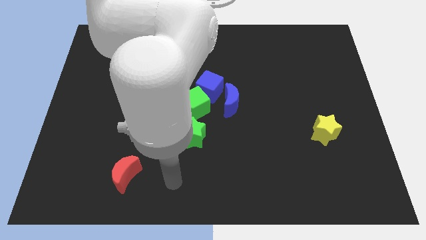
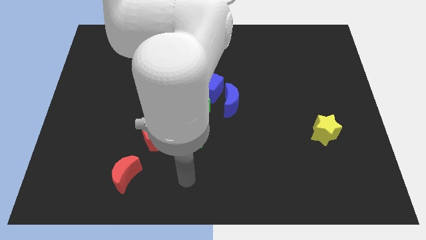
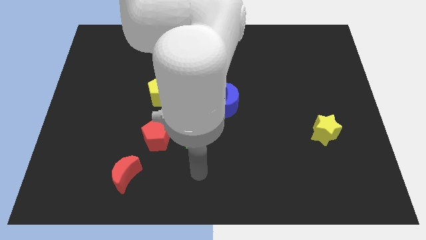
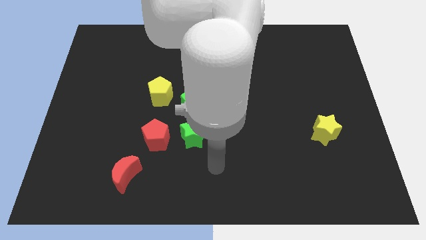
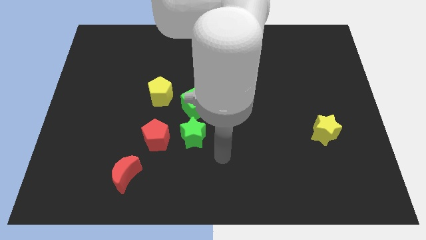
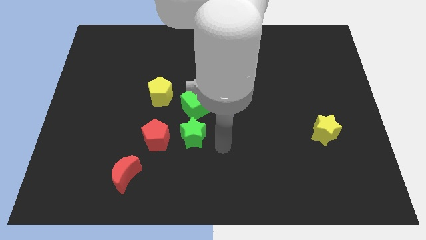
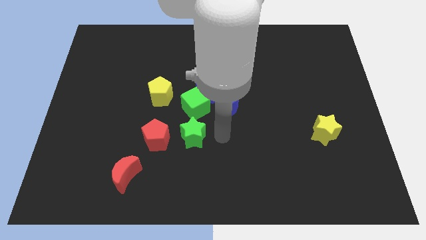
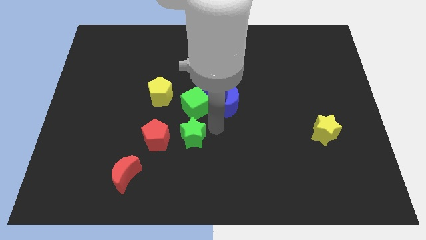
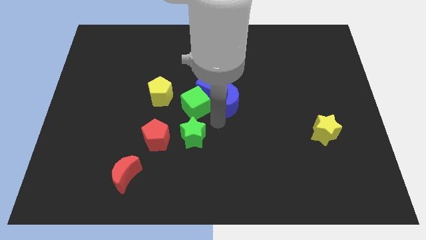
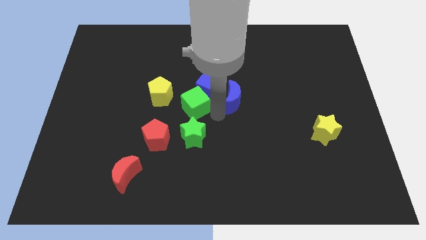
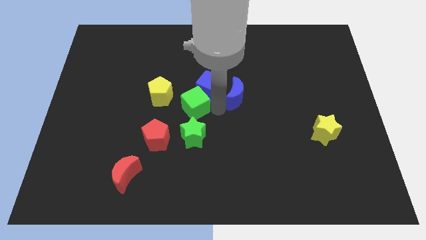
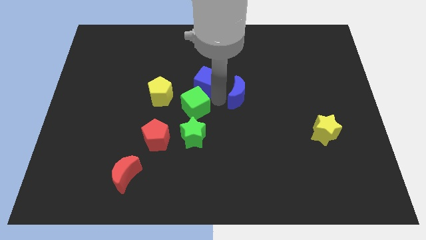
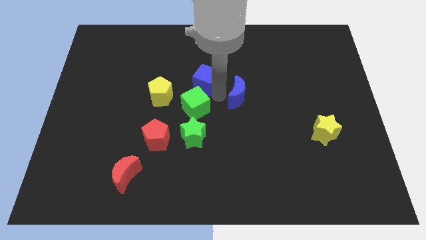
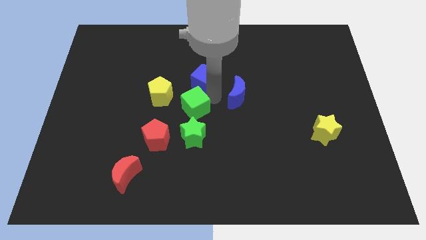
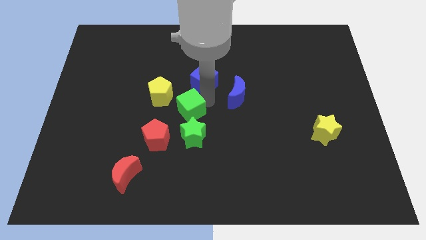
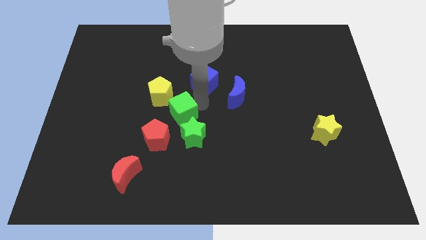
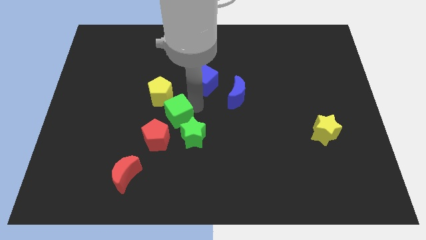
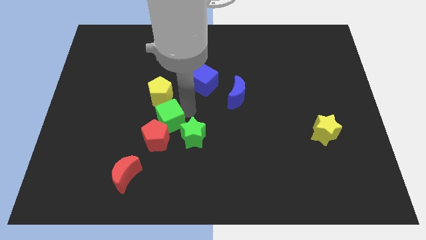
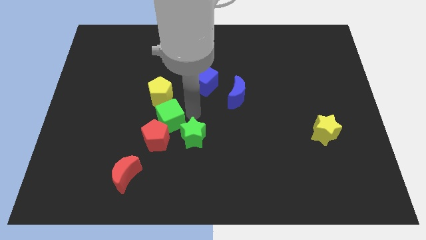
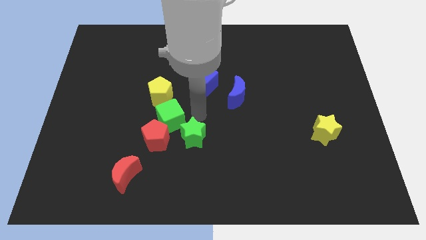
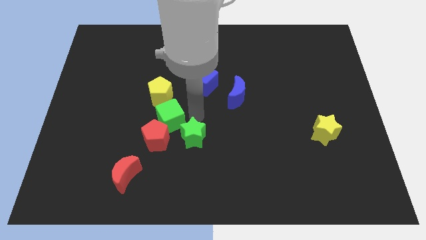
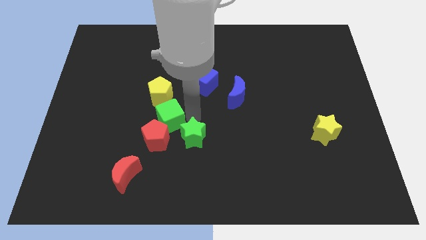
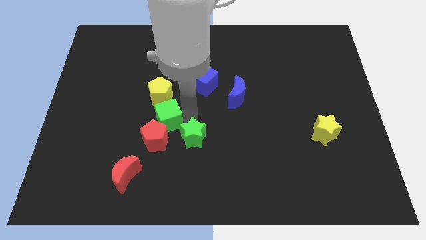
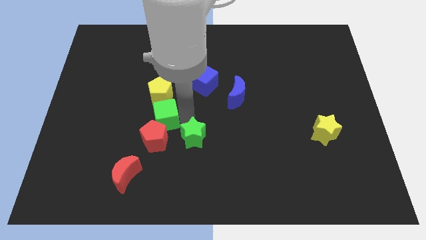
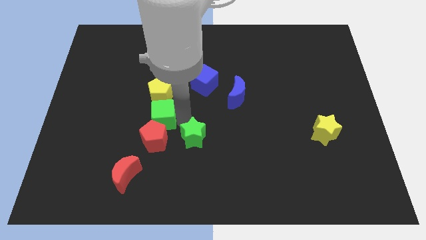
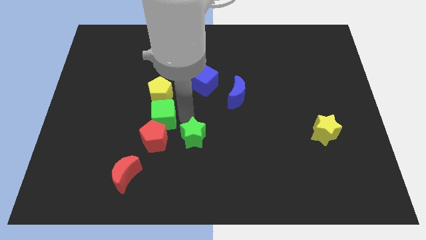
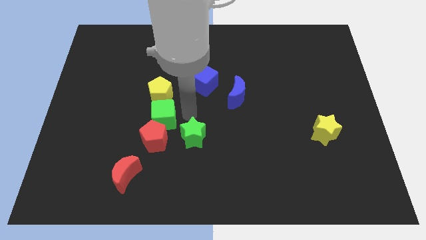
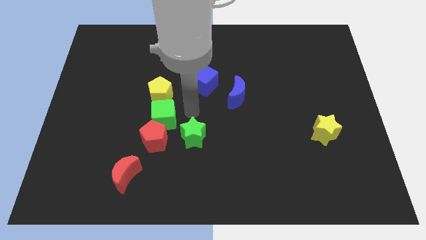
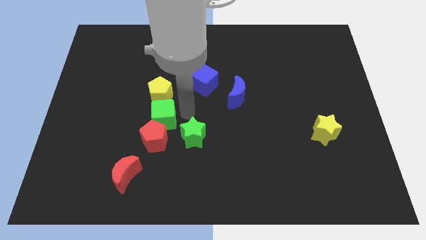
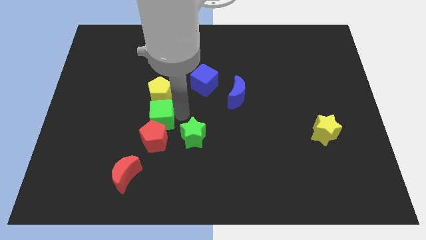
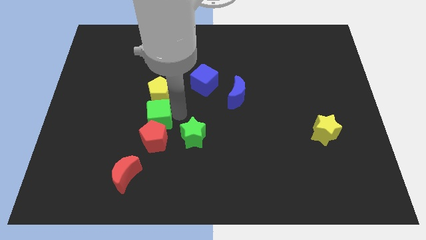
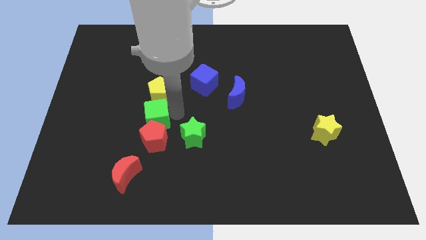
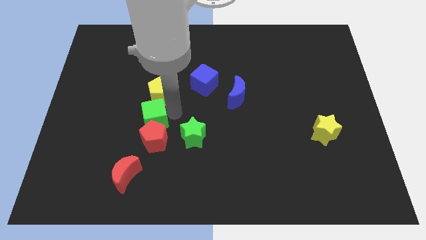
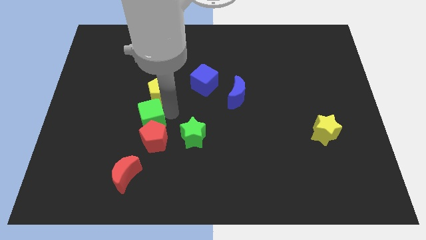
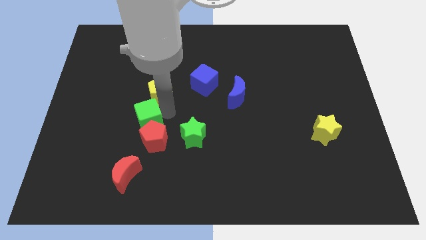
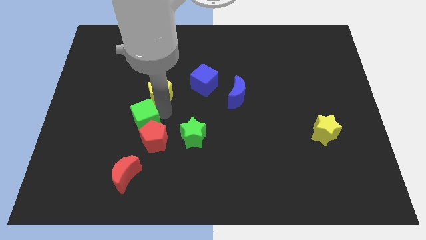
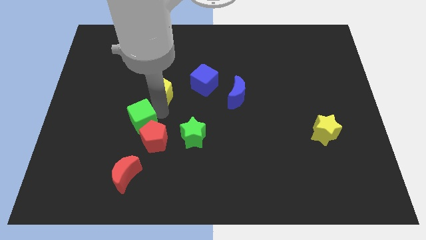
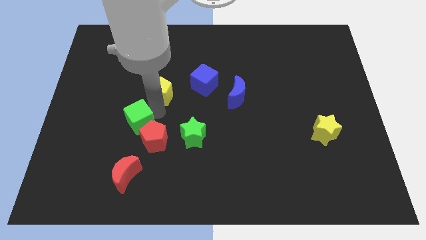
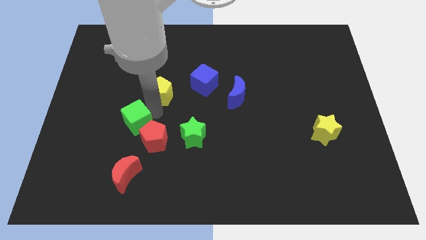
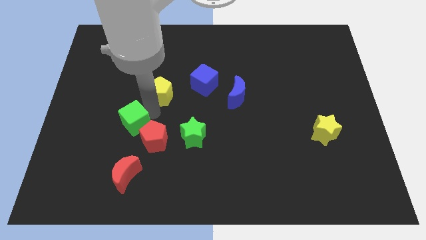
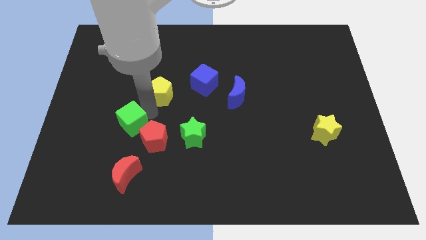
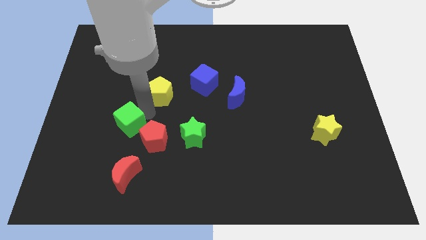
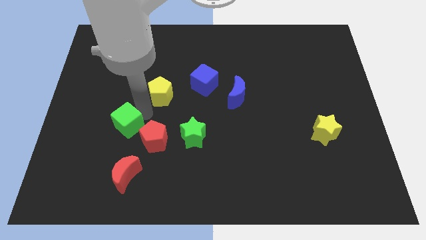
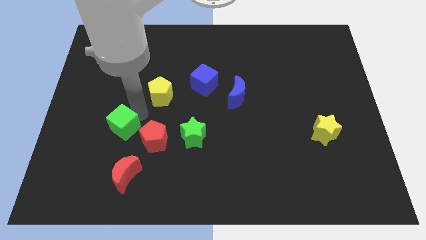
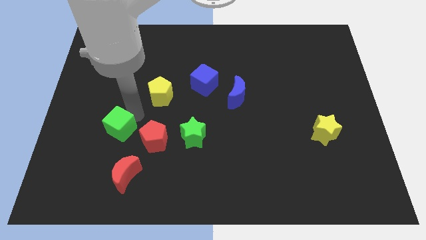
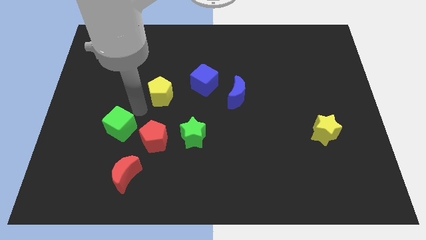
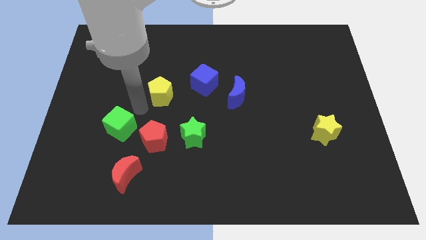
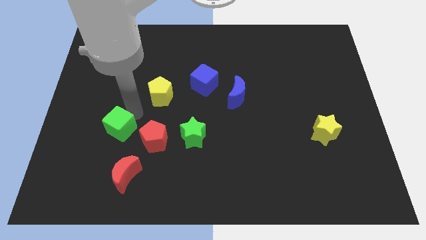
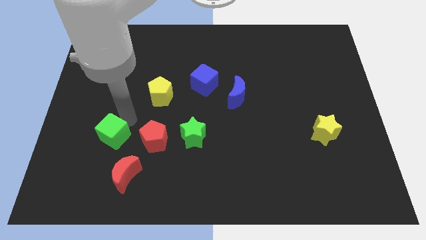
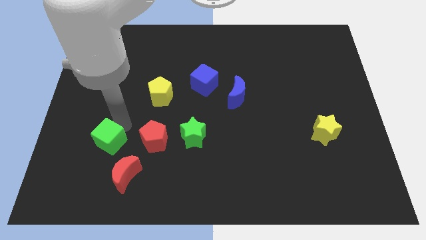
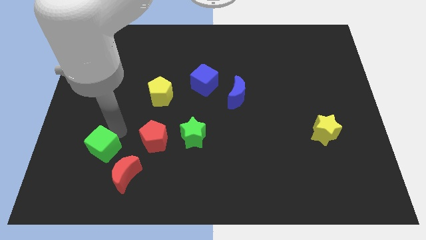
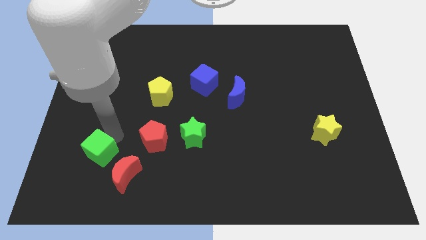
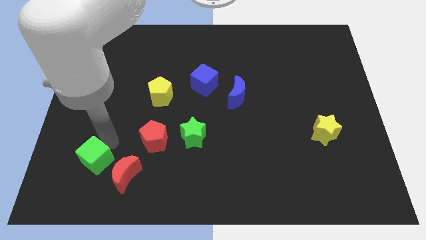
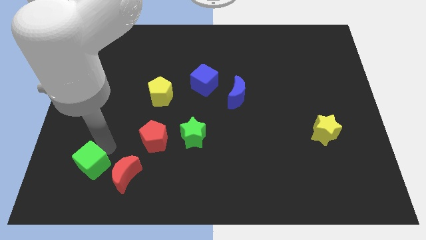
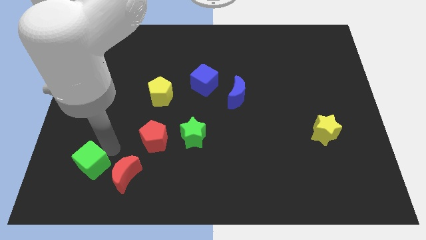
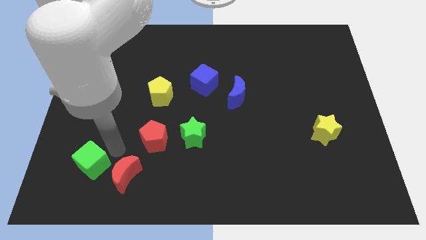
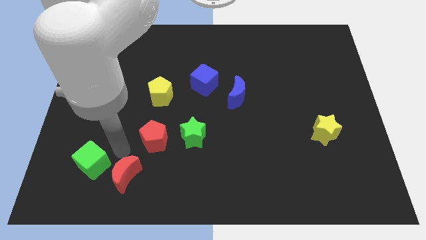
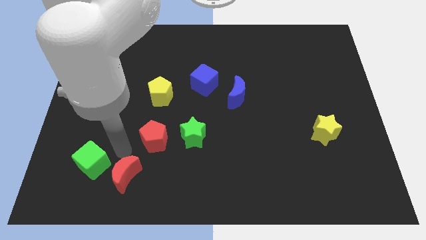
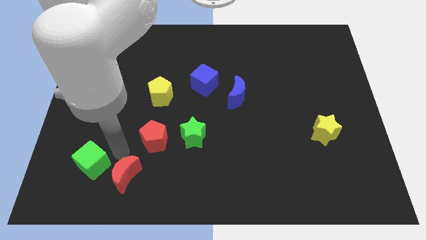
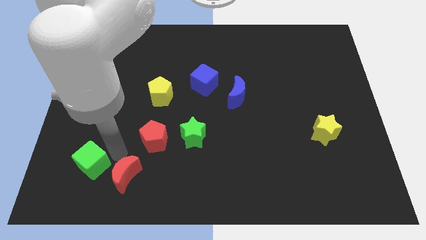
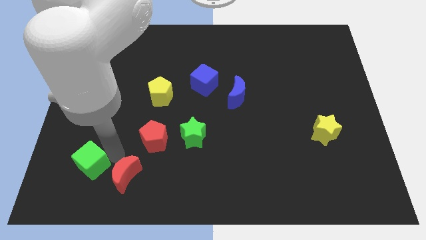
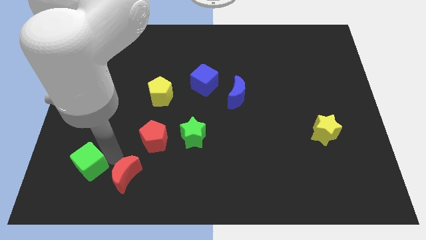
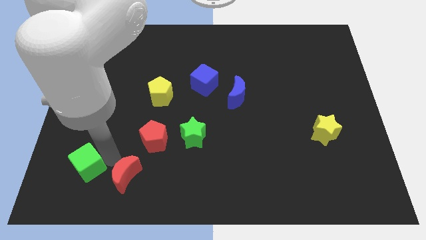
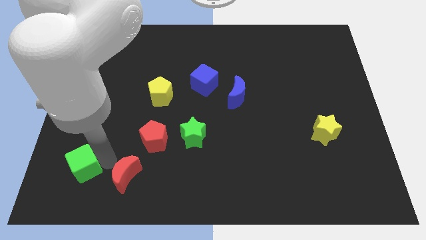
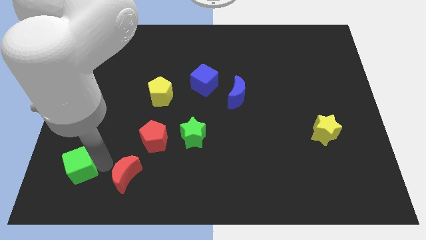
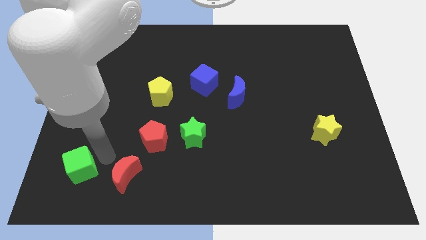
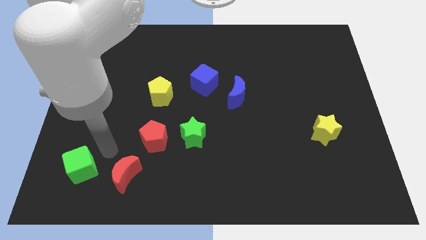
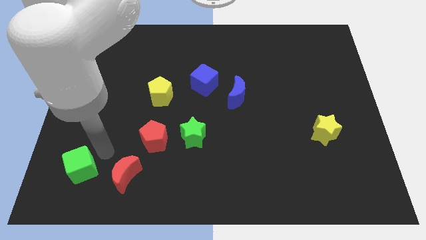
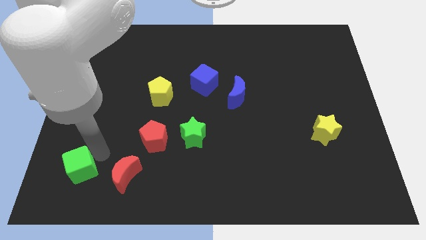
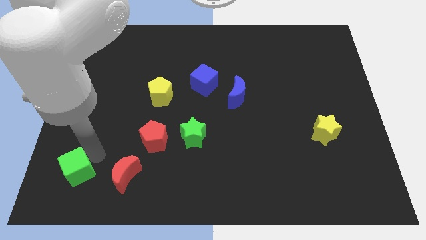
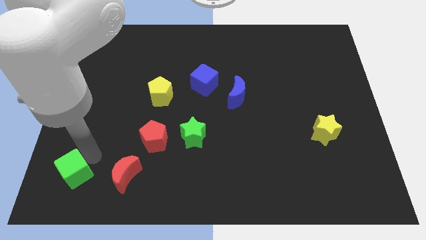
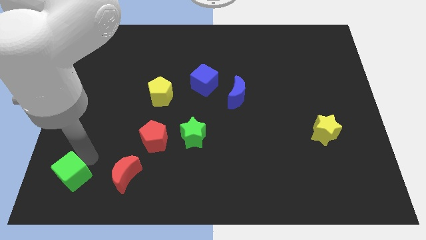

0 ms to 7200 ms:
put the green cube to the bottom left
